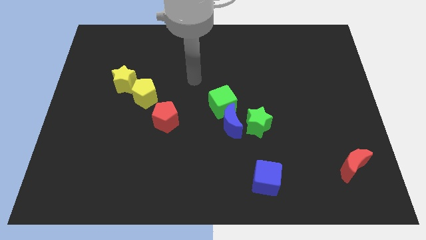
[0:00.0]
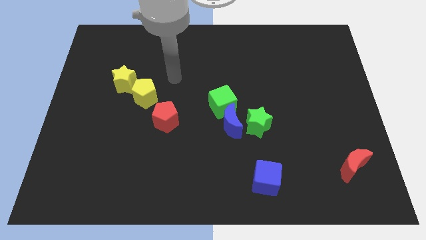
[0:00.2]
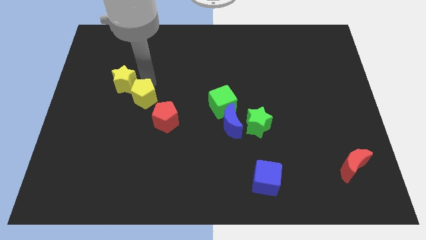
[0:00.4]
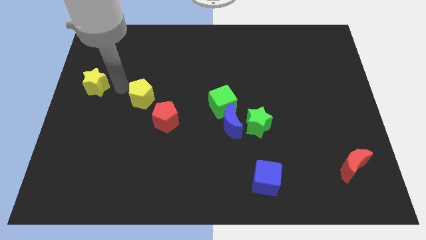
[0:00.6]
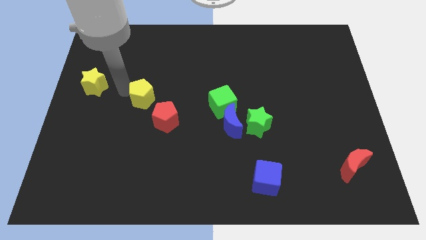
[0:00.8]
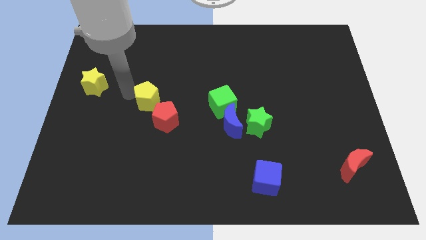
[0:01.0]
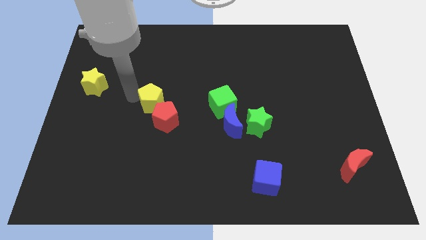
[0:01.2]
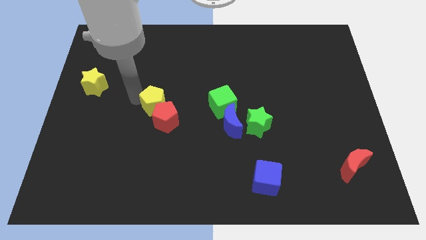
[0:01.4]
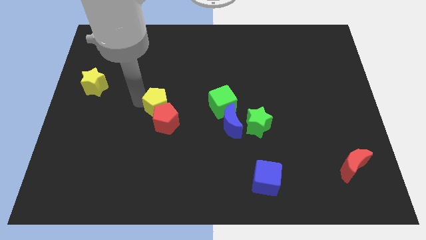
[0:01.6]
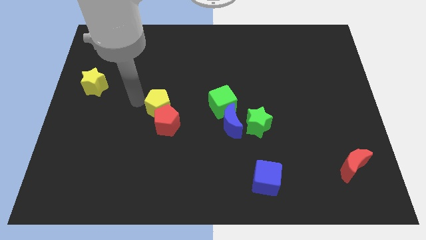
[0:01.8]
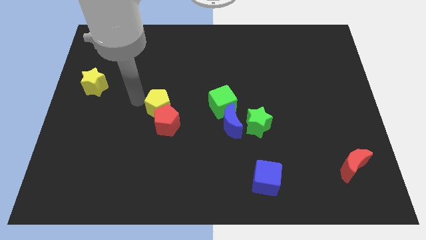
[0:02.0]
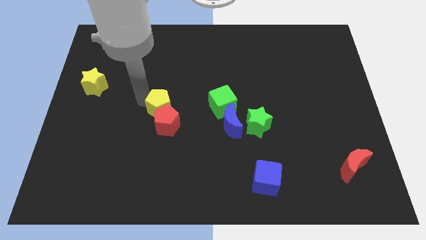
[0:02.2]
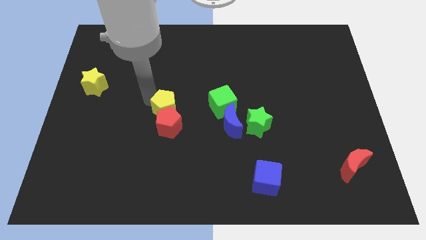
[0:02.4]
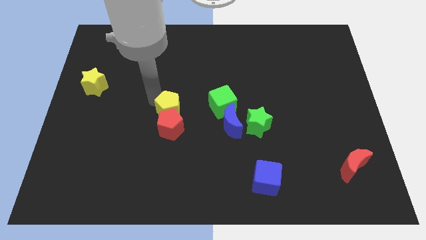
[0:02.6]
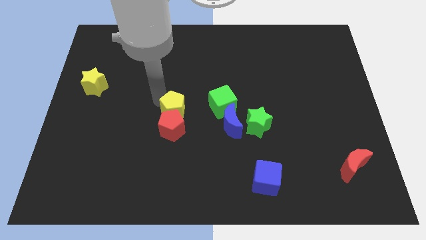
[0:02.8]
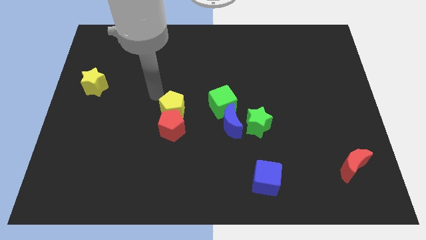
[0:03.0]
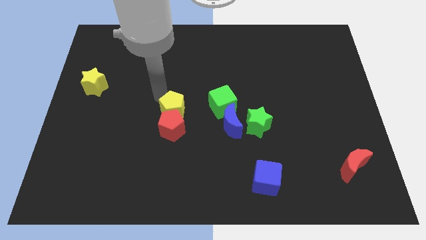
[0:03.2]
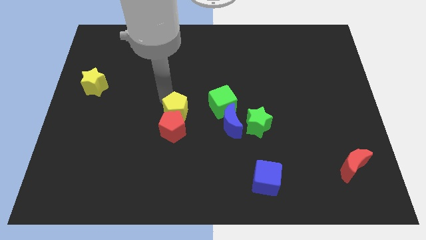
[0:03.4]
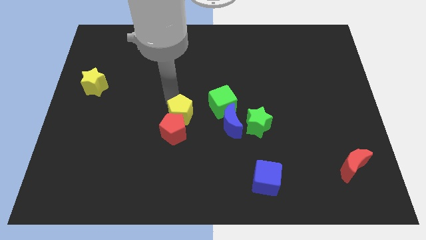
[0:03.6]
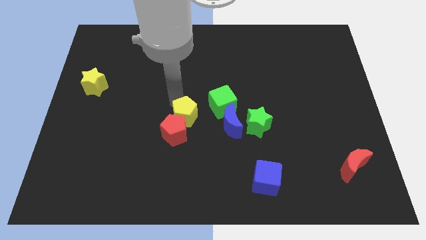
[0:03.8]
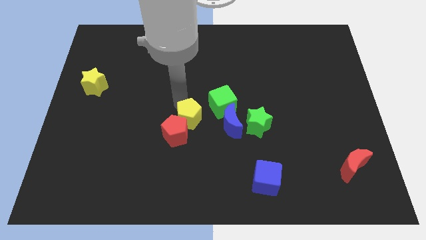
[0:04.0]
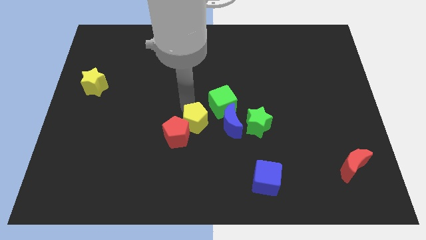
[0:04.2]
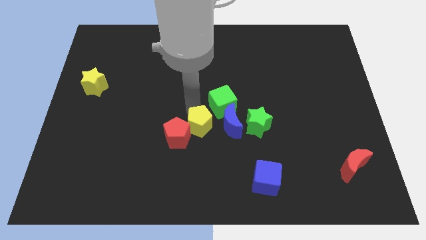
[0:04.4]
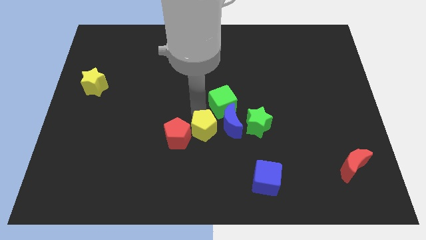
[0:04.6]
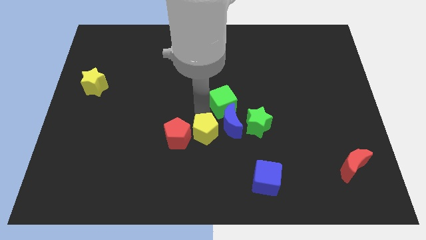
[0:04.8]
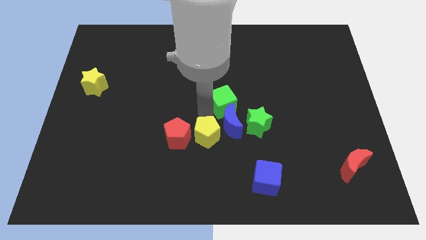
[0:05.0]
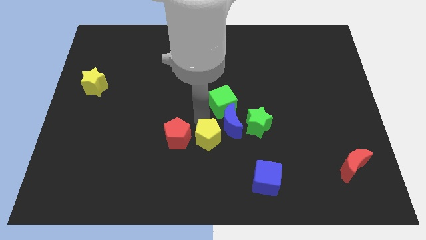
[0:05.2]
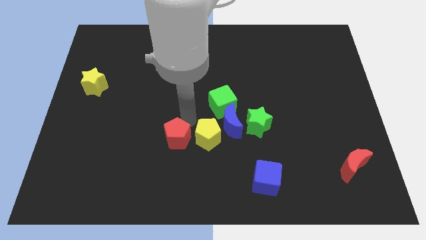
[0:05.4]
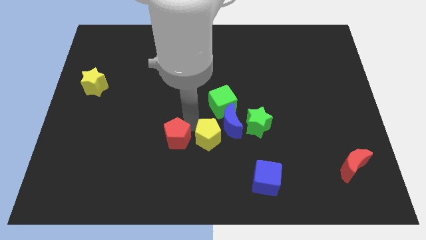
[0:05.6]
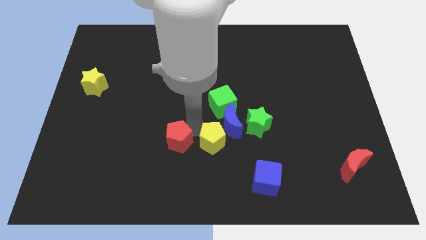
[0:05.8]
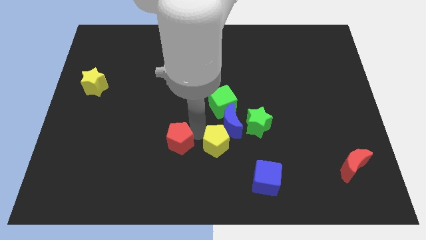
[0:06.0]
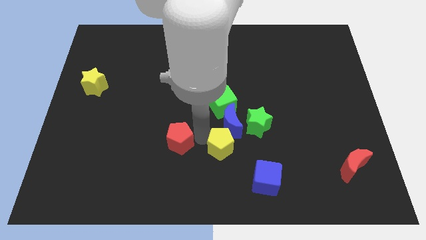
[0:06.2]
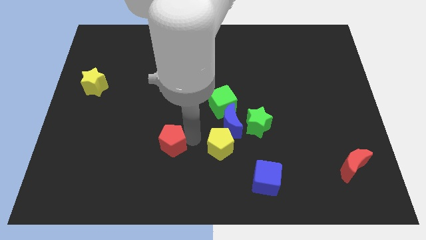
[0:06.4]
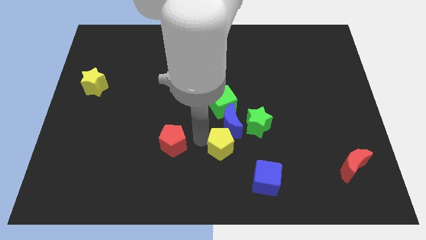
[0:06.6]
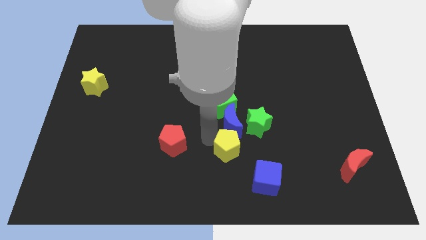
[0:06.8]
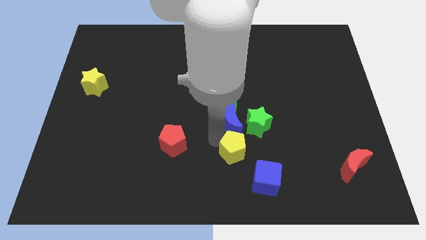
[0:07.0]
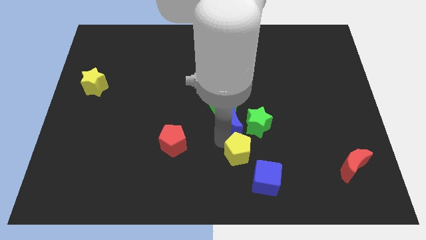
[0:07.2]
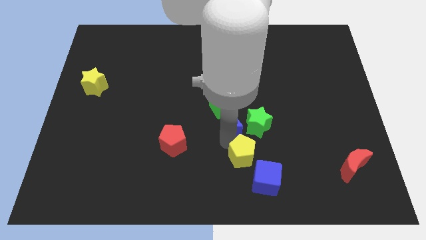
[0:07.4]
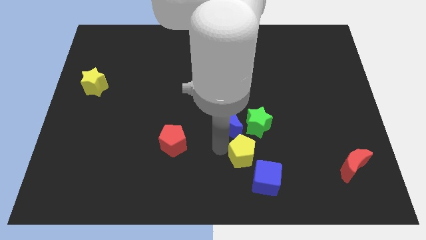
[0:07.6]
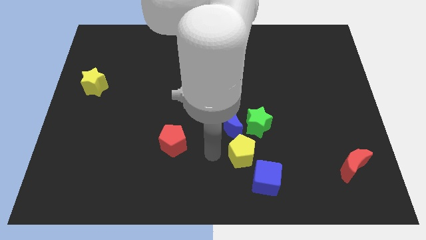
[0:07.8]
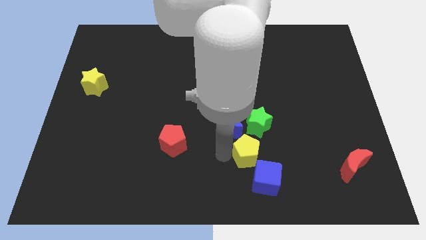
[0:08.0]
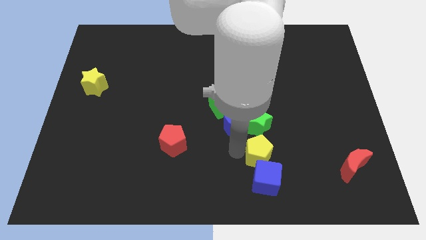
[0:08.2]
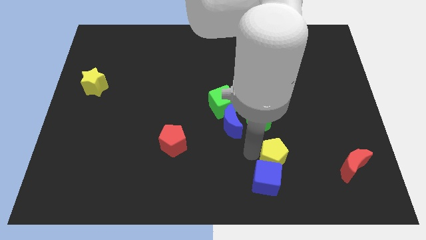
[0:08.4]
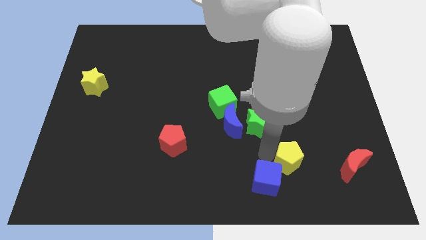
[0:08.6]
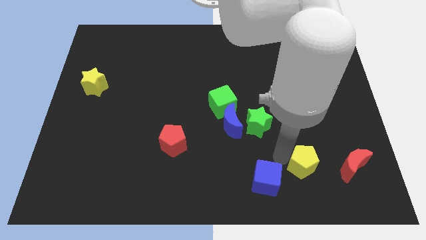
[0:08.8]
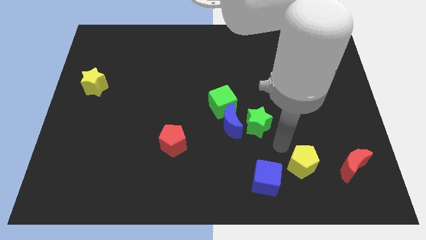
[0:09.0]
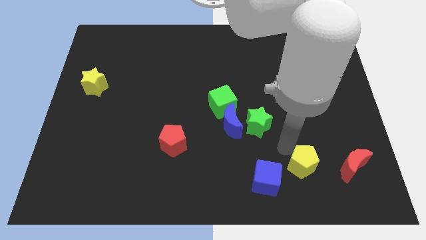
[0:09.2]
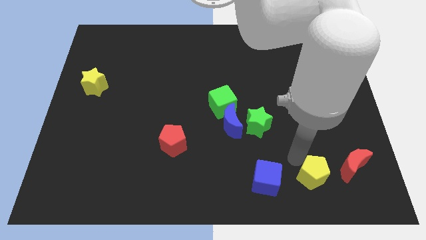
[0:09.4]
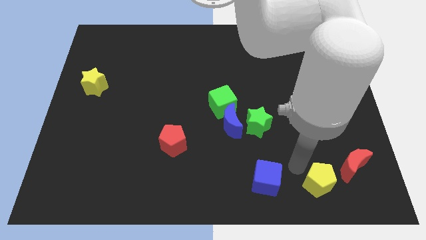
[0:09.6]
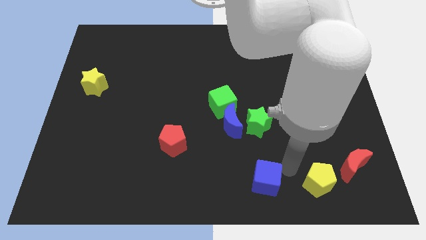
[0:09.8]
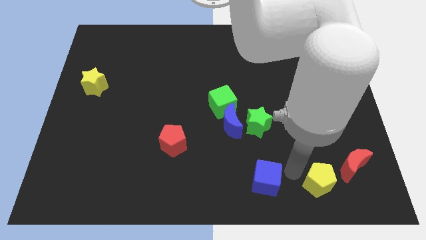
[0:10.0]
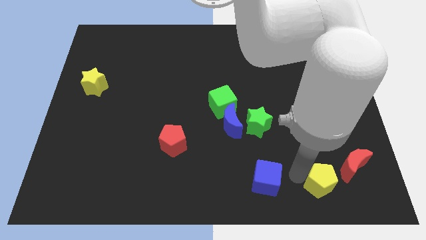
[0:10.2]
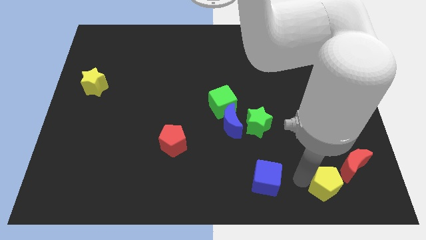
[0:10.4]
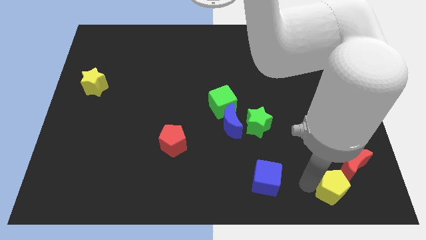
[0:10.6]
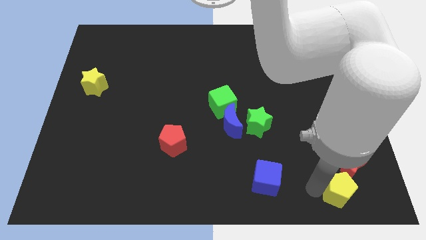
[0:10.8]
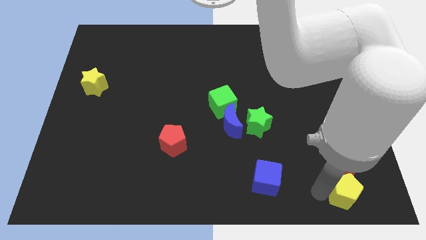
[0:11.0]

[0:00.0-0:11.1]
push the yellow pentagon to the lower right corner

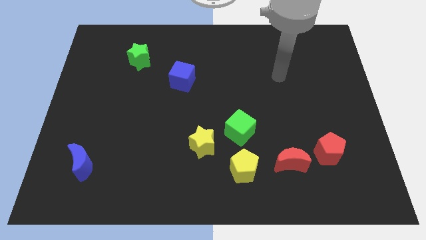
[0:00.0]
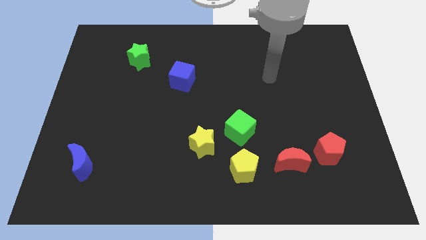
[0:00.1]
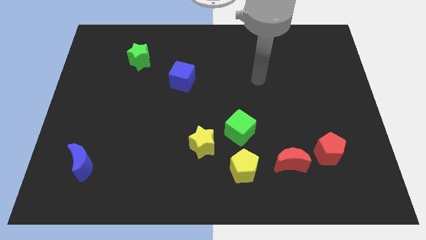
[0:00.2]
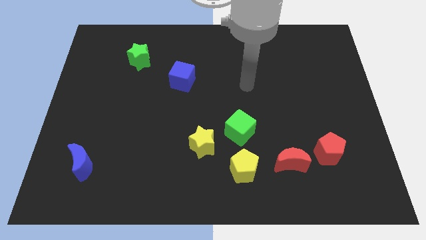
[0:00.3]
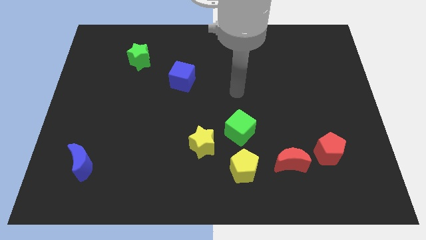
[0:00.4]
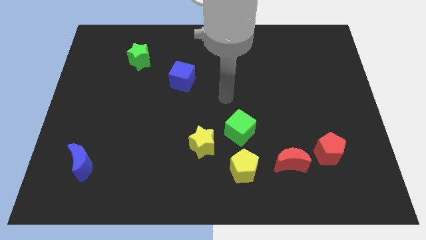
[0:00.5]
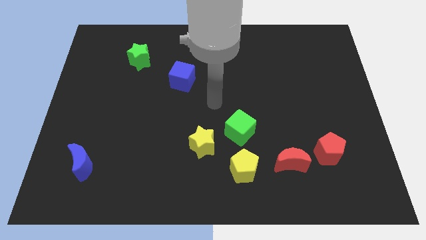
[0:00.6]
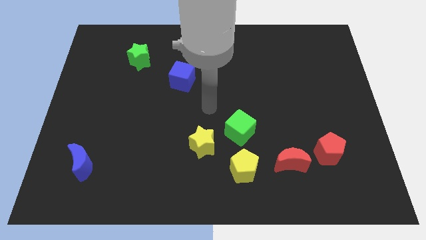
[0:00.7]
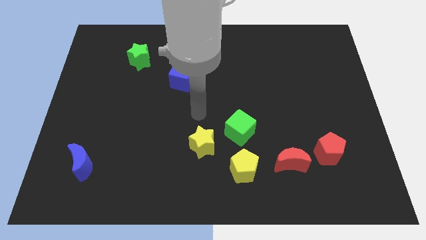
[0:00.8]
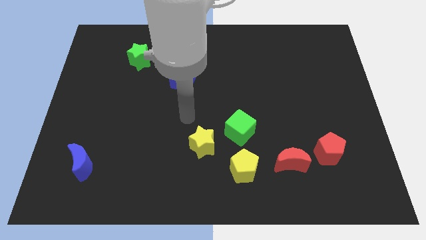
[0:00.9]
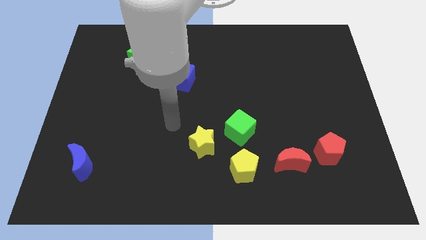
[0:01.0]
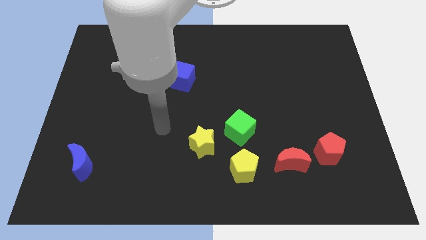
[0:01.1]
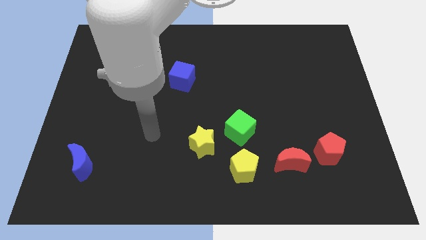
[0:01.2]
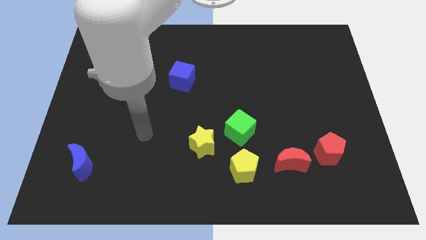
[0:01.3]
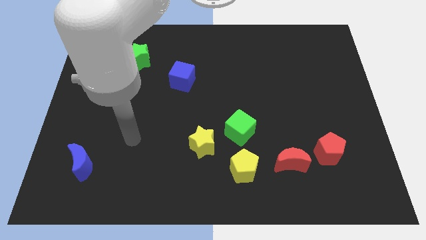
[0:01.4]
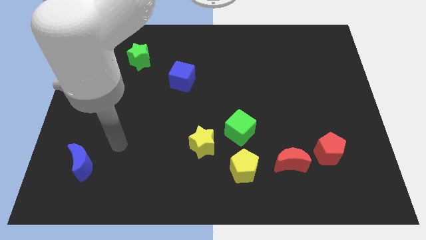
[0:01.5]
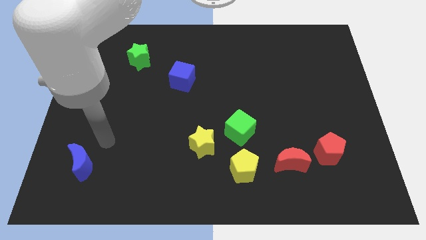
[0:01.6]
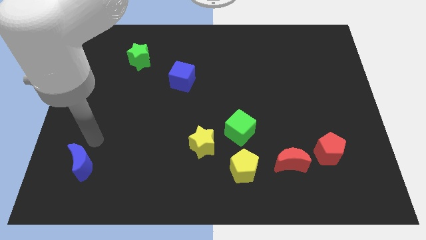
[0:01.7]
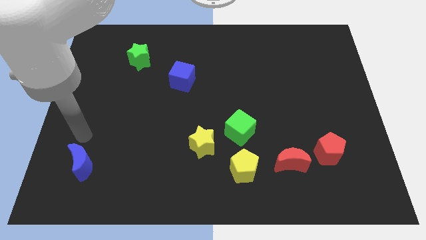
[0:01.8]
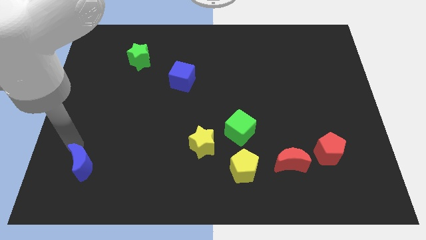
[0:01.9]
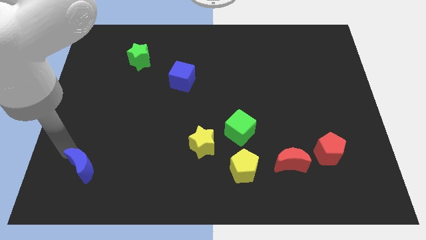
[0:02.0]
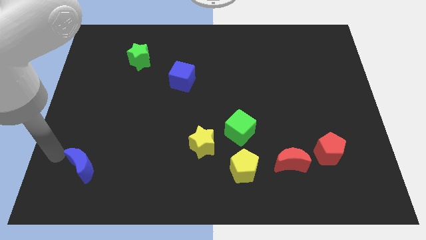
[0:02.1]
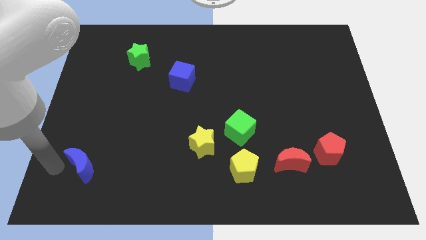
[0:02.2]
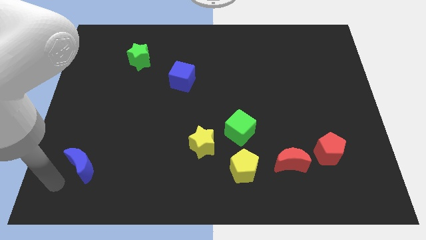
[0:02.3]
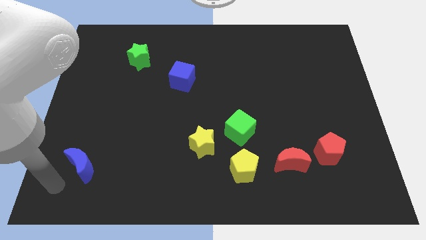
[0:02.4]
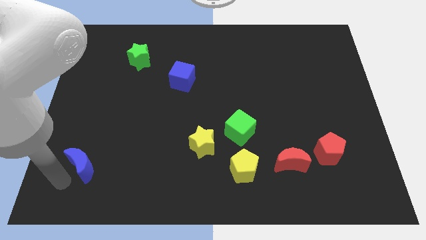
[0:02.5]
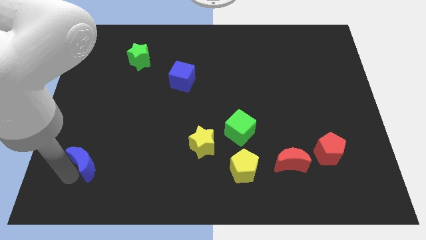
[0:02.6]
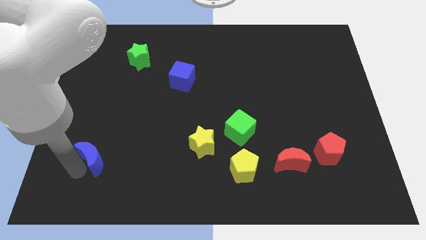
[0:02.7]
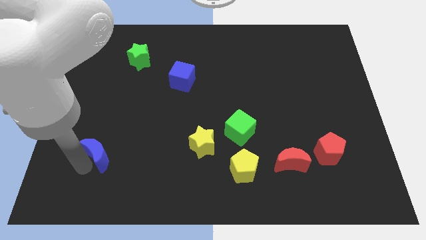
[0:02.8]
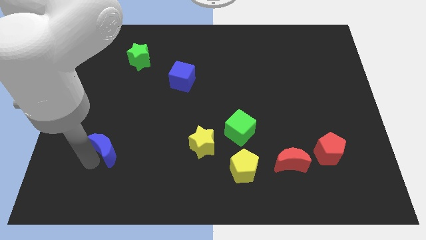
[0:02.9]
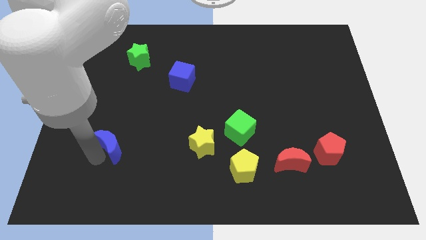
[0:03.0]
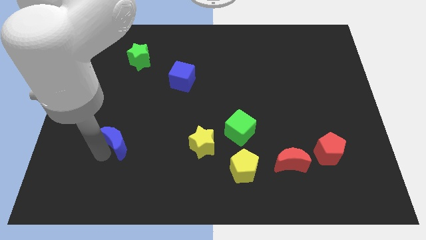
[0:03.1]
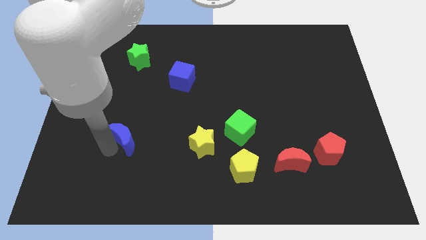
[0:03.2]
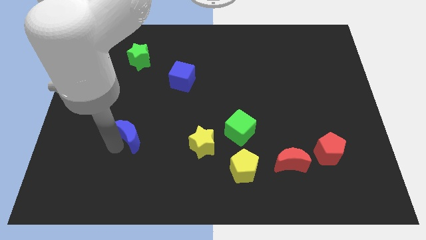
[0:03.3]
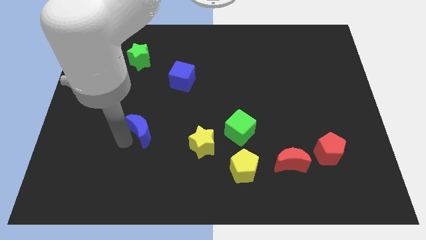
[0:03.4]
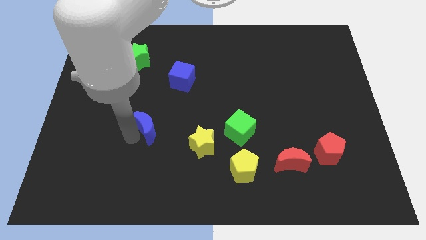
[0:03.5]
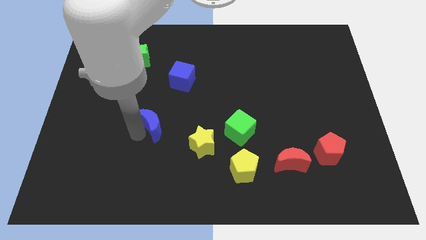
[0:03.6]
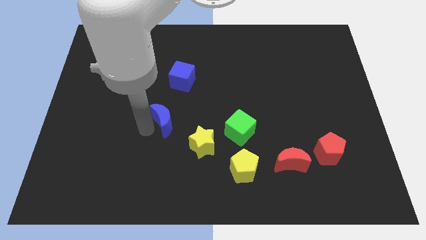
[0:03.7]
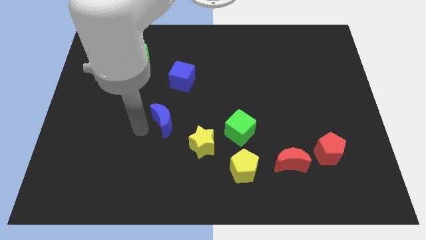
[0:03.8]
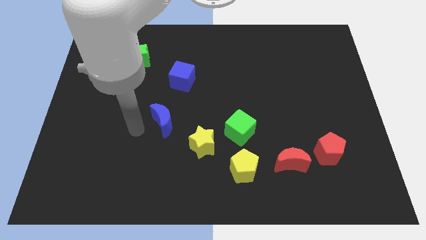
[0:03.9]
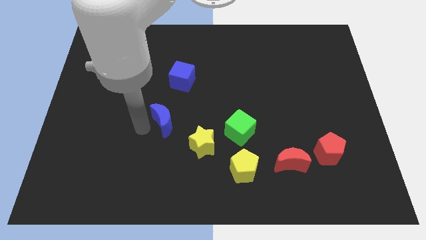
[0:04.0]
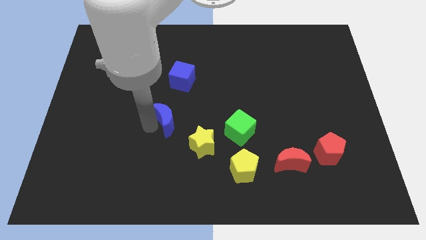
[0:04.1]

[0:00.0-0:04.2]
move the blue moon to the center of the board
